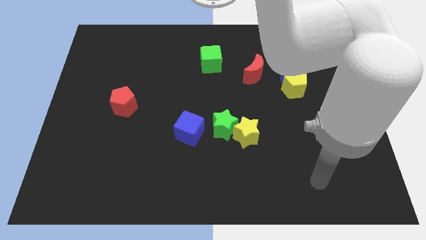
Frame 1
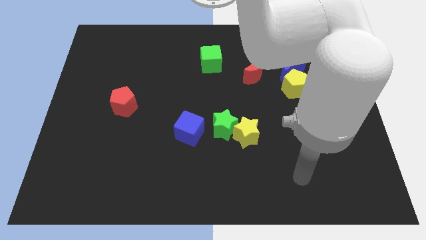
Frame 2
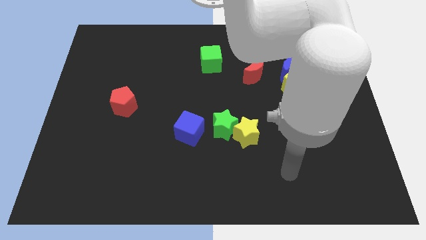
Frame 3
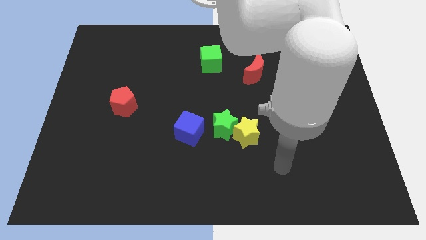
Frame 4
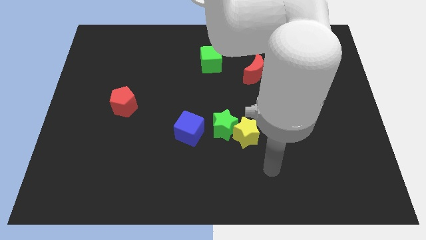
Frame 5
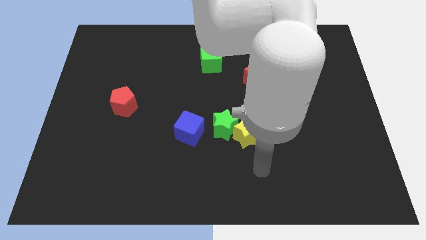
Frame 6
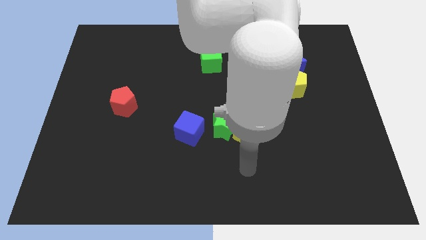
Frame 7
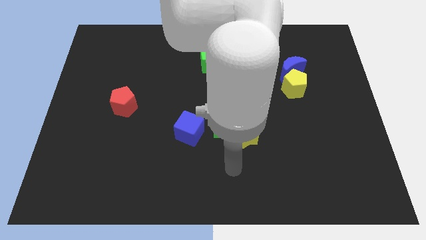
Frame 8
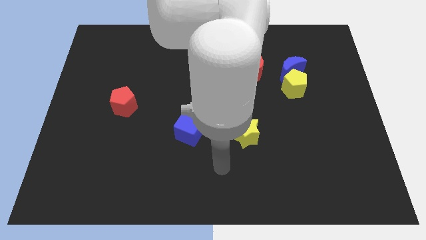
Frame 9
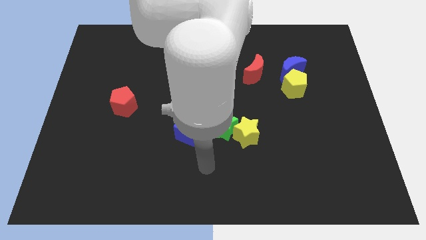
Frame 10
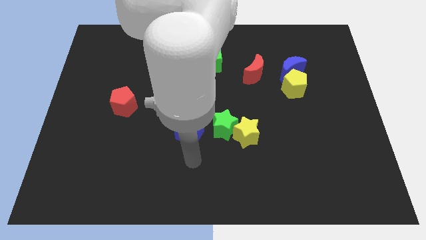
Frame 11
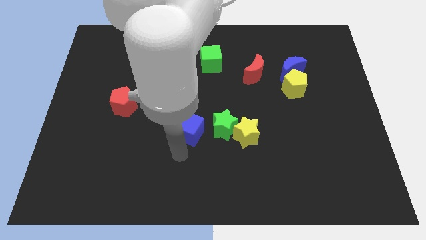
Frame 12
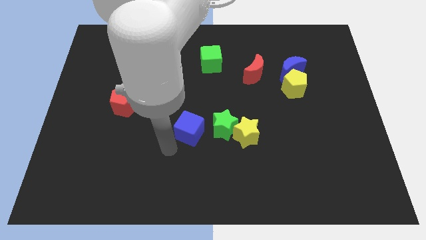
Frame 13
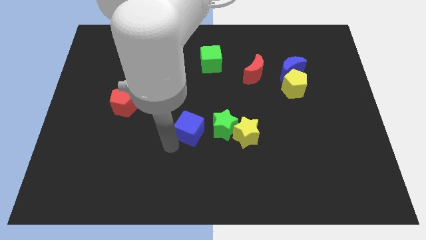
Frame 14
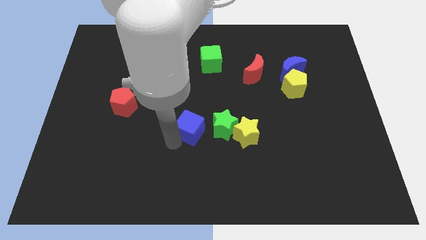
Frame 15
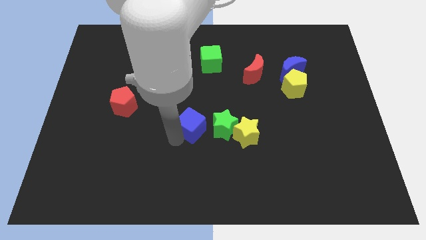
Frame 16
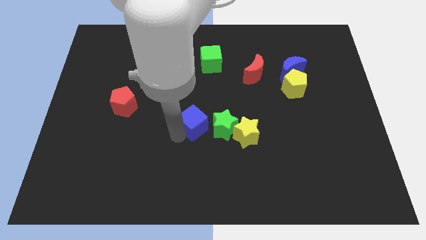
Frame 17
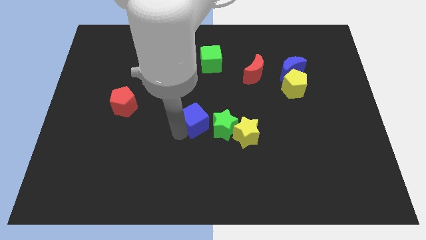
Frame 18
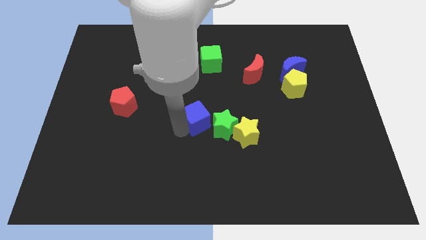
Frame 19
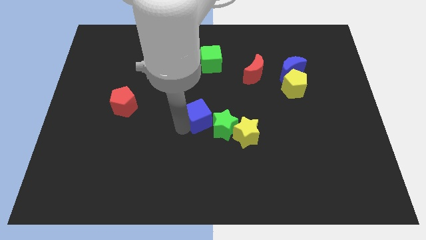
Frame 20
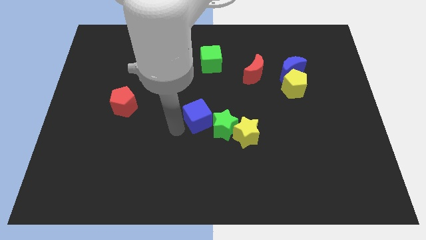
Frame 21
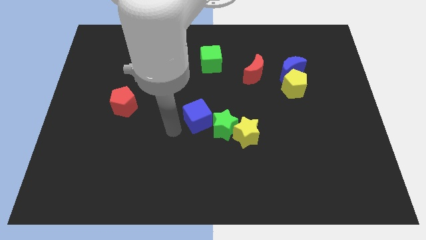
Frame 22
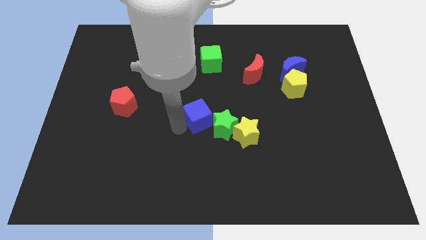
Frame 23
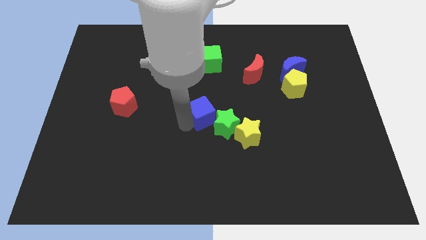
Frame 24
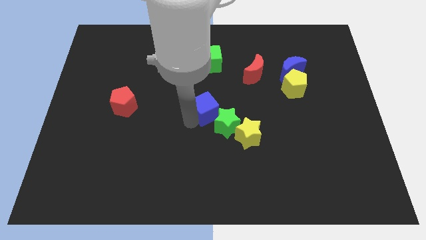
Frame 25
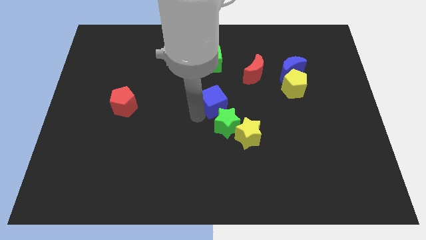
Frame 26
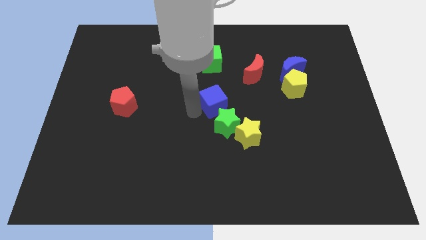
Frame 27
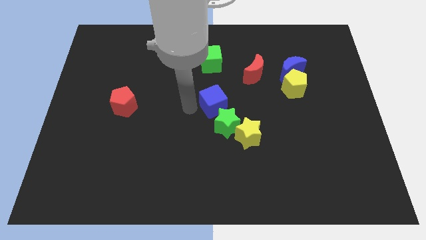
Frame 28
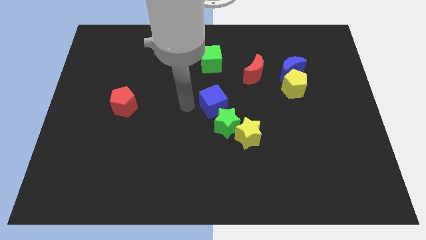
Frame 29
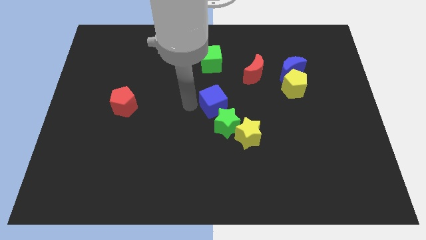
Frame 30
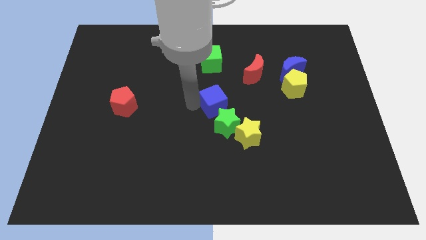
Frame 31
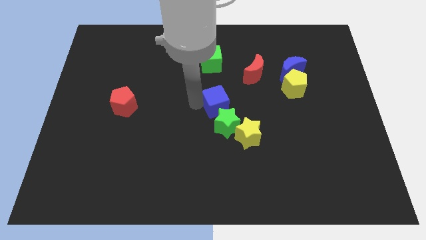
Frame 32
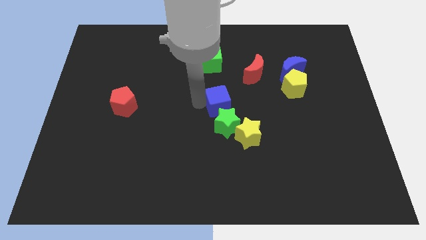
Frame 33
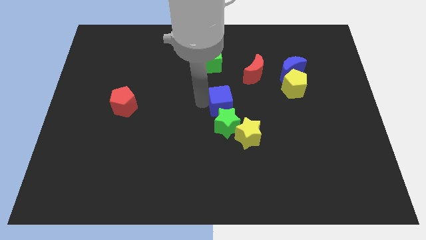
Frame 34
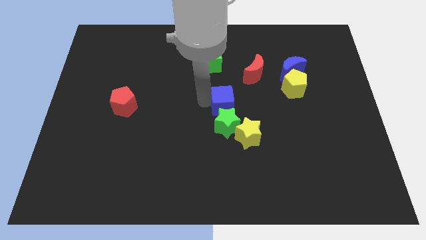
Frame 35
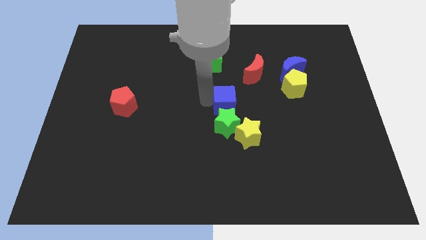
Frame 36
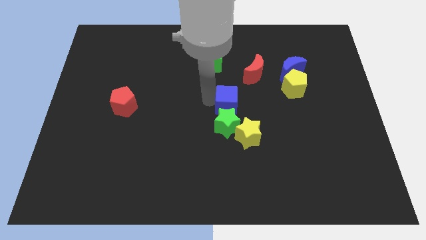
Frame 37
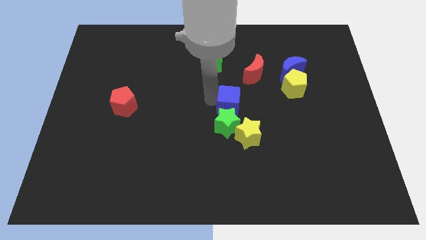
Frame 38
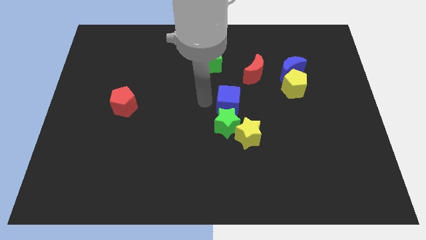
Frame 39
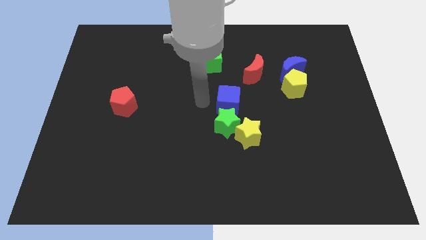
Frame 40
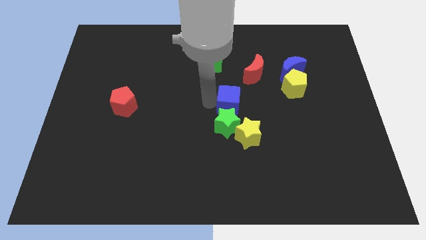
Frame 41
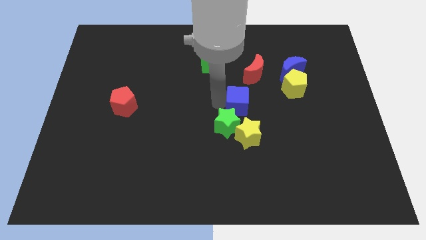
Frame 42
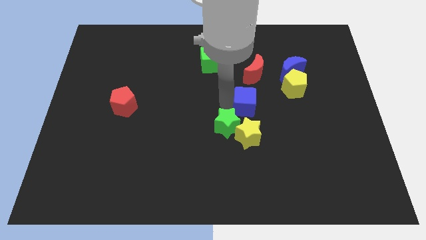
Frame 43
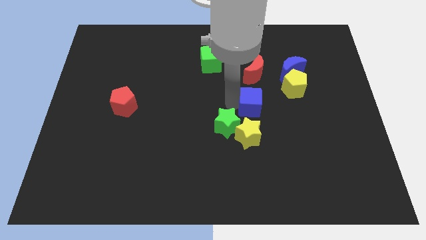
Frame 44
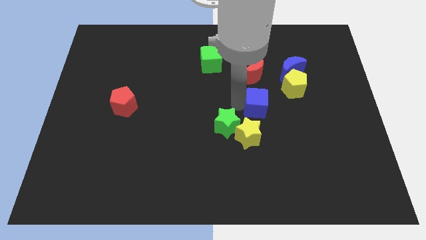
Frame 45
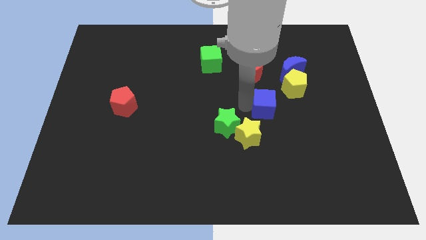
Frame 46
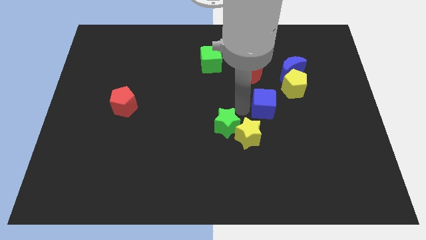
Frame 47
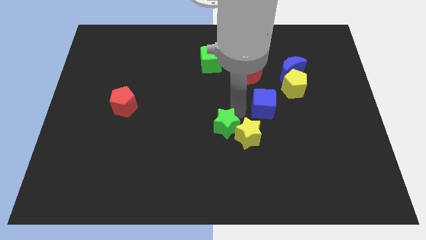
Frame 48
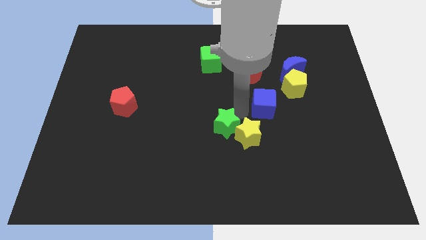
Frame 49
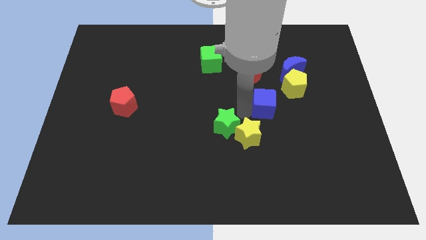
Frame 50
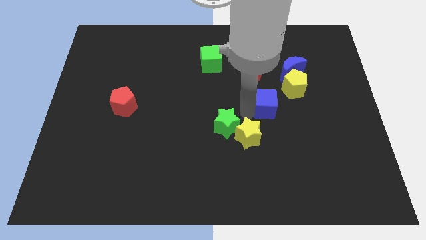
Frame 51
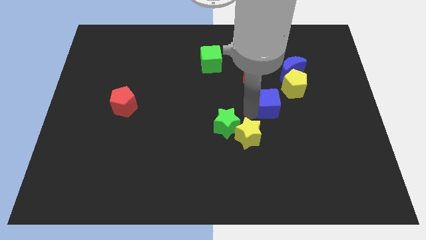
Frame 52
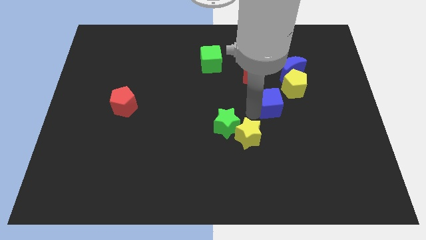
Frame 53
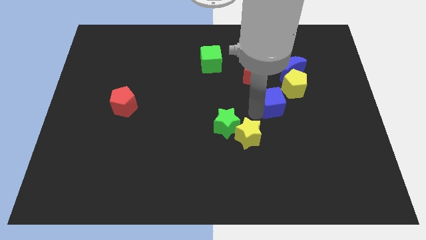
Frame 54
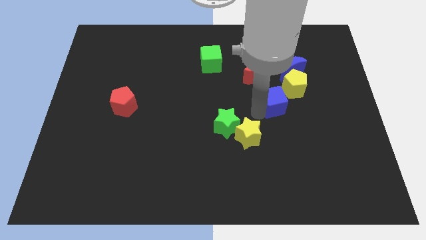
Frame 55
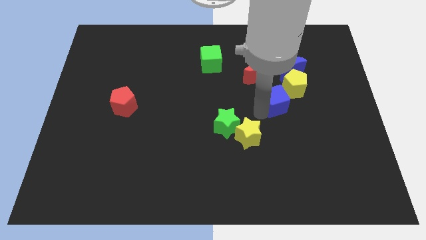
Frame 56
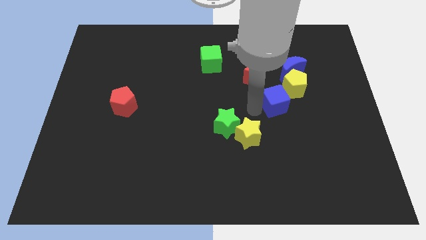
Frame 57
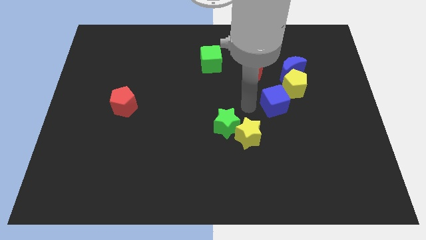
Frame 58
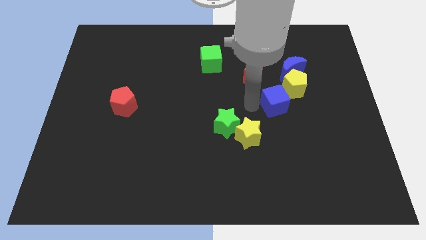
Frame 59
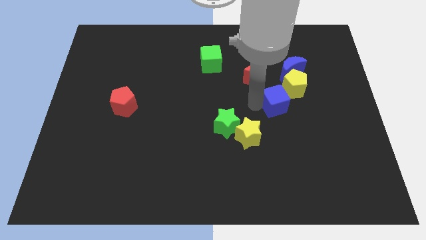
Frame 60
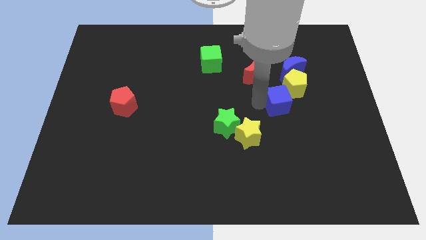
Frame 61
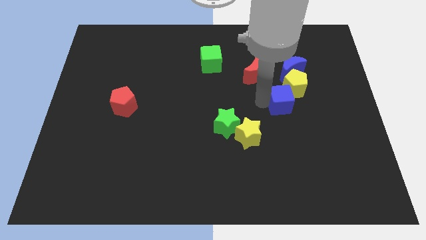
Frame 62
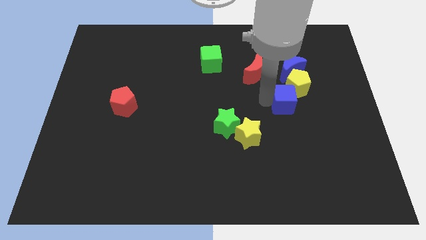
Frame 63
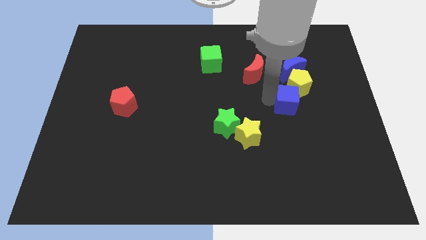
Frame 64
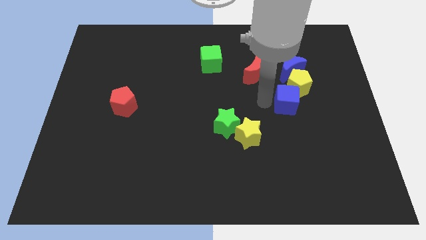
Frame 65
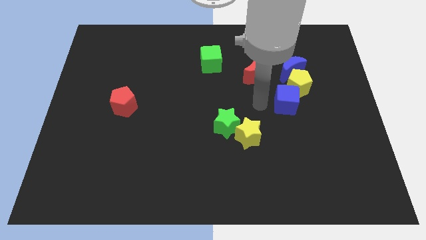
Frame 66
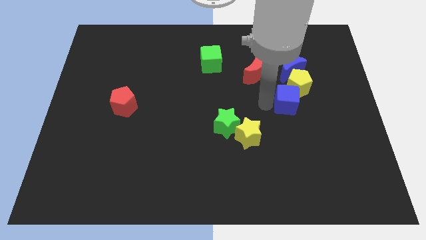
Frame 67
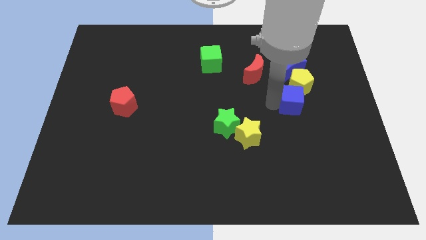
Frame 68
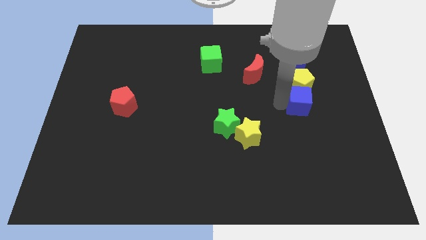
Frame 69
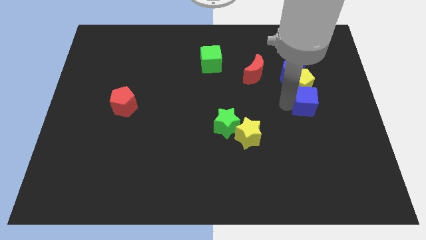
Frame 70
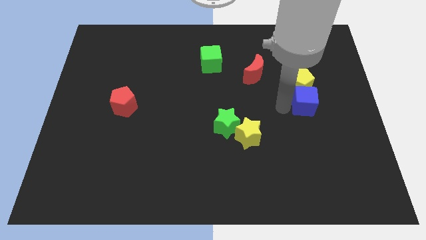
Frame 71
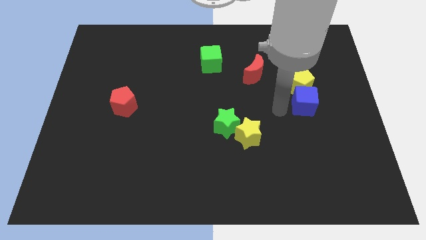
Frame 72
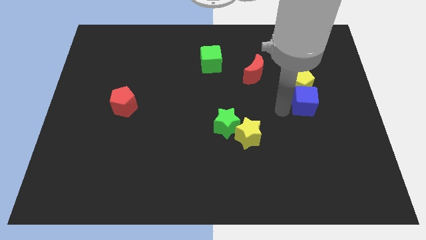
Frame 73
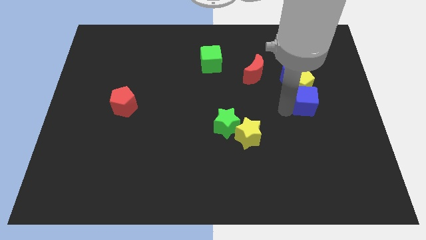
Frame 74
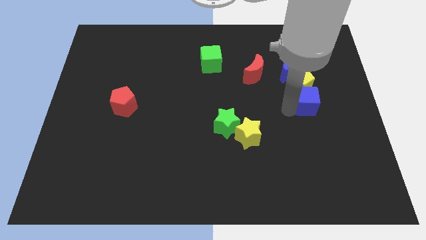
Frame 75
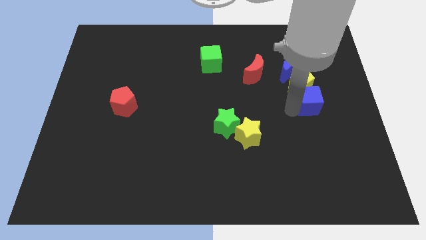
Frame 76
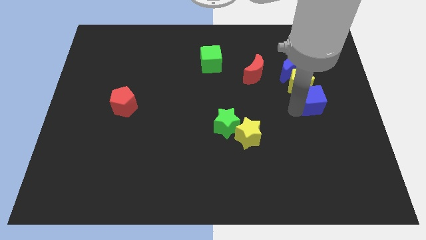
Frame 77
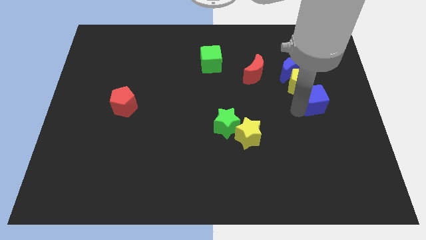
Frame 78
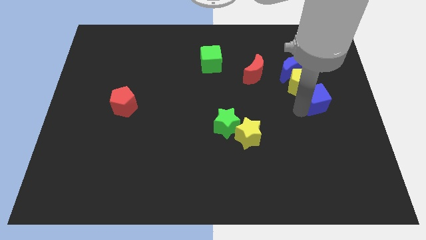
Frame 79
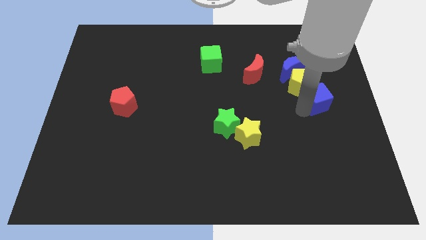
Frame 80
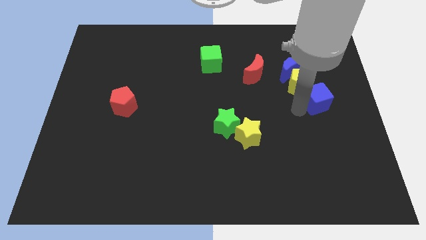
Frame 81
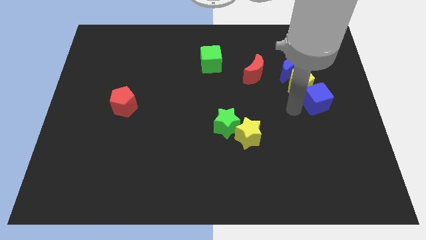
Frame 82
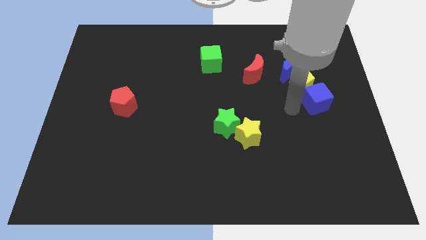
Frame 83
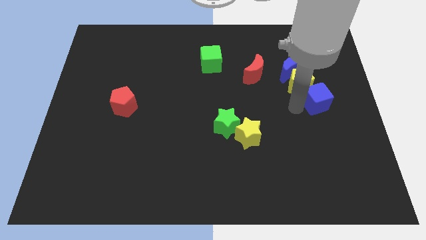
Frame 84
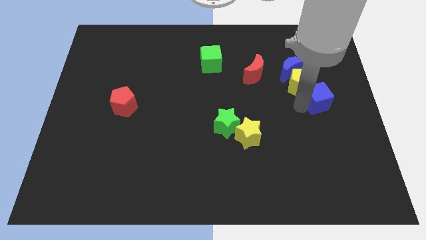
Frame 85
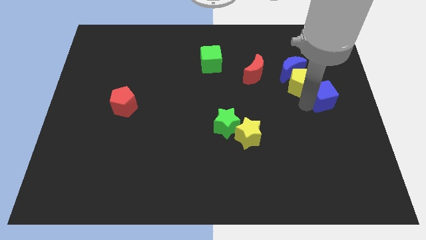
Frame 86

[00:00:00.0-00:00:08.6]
put the blue cube to the center right
